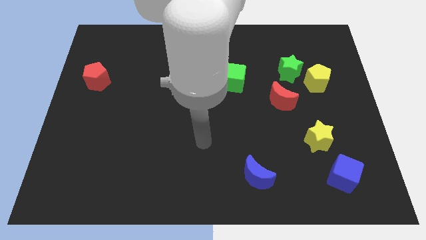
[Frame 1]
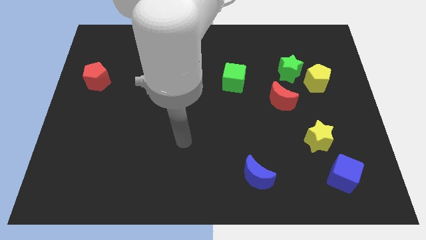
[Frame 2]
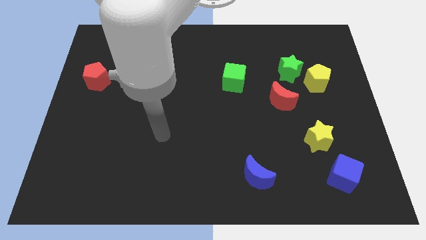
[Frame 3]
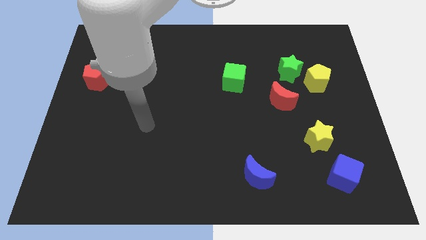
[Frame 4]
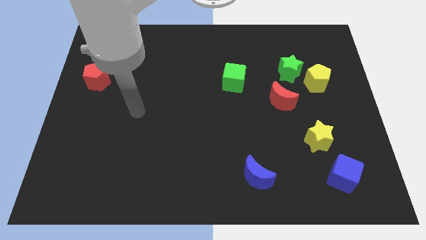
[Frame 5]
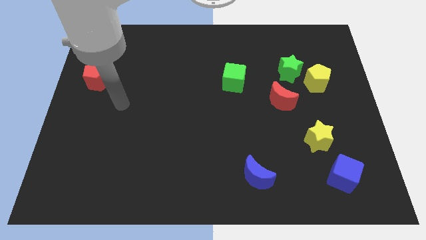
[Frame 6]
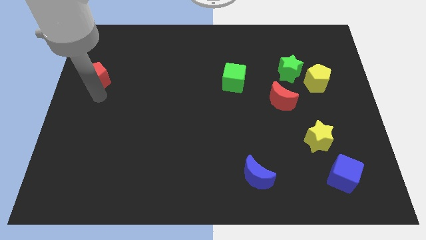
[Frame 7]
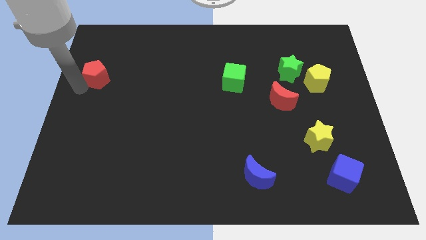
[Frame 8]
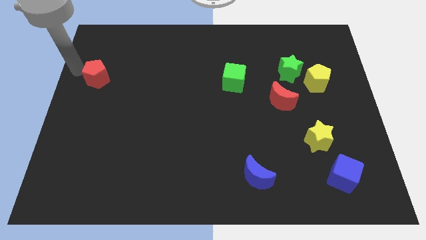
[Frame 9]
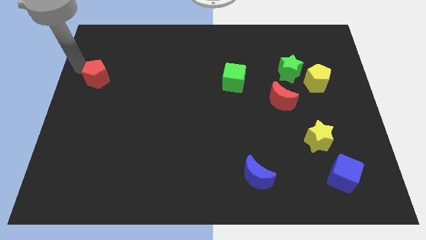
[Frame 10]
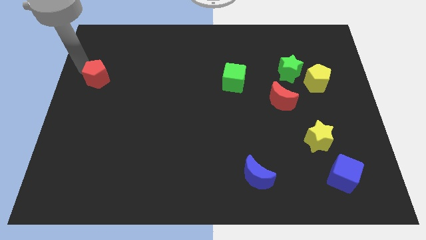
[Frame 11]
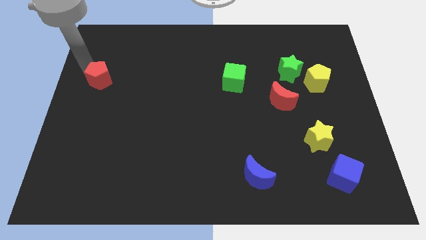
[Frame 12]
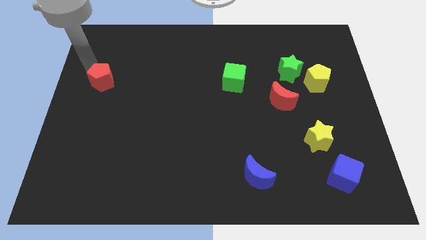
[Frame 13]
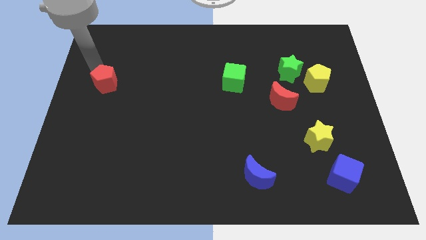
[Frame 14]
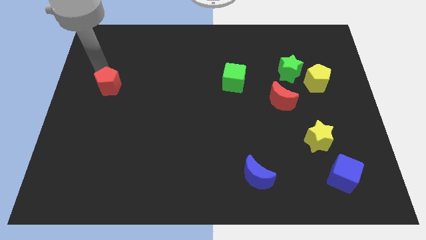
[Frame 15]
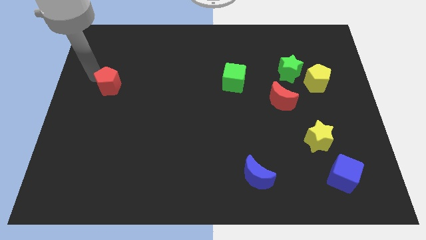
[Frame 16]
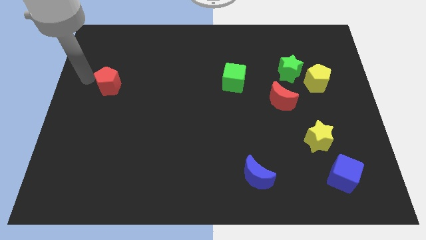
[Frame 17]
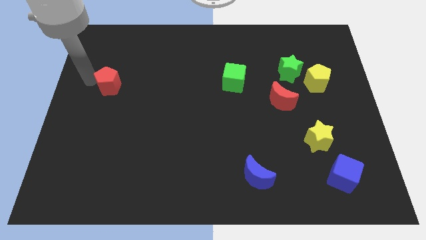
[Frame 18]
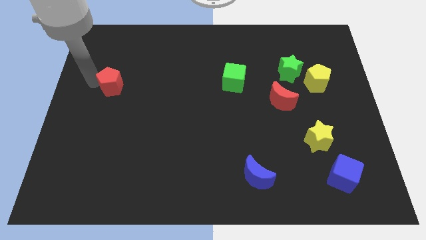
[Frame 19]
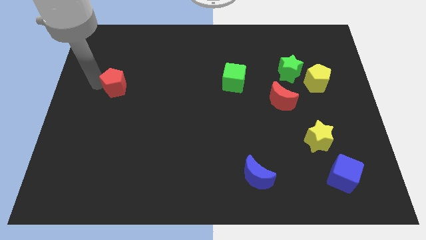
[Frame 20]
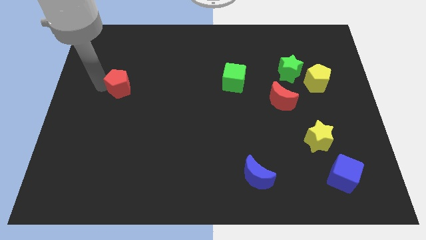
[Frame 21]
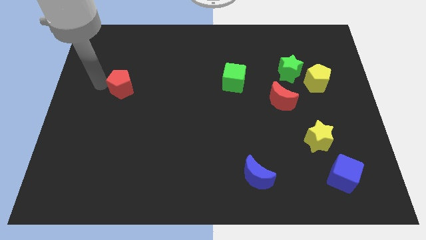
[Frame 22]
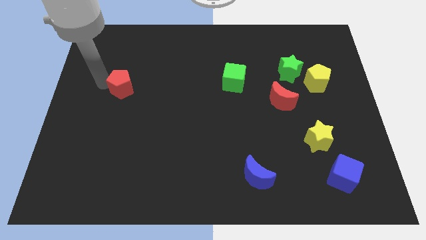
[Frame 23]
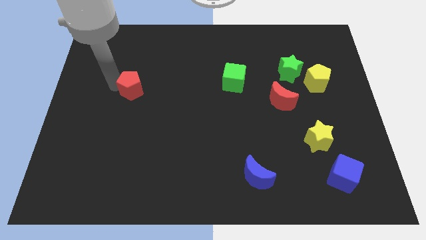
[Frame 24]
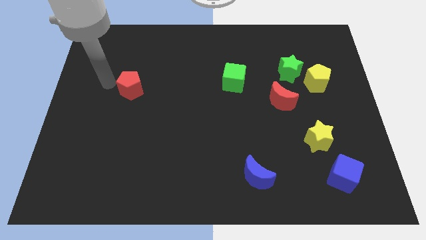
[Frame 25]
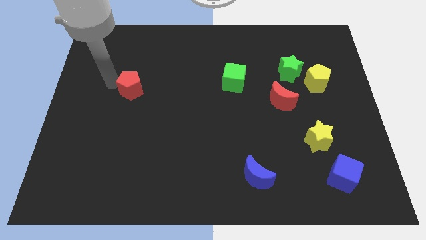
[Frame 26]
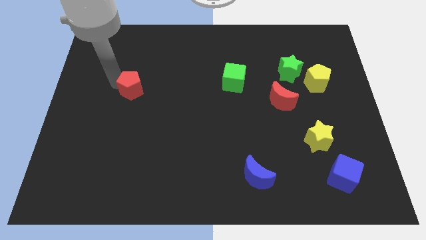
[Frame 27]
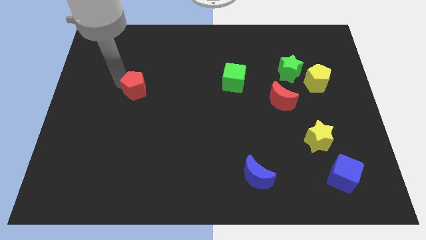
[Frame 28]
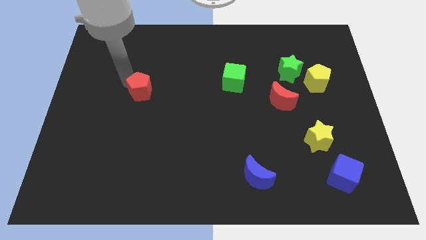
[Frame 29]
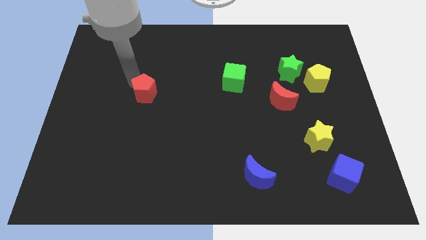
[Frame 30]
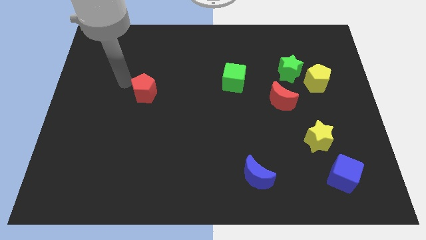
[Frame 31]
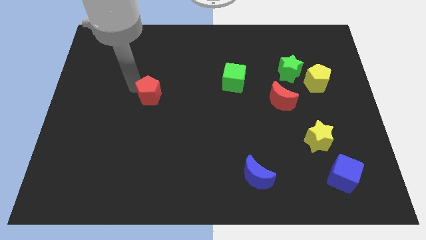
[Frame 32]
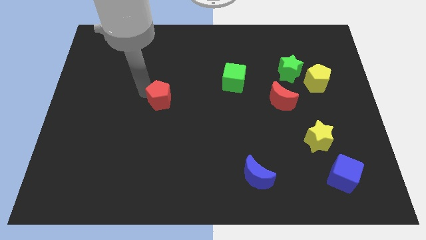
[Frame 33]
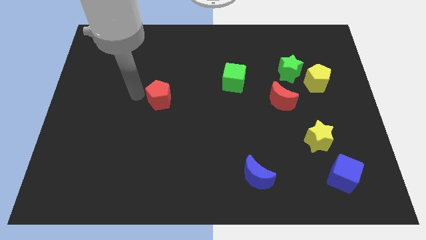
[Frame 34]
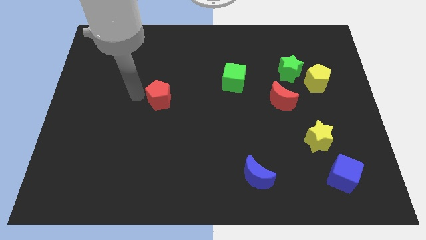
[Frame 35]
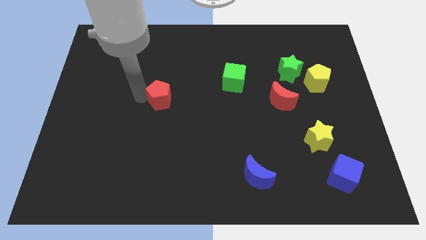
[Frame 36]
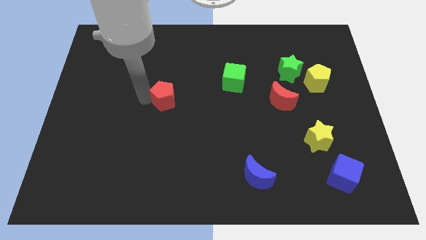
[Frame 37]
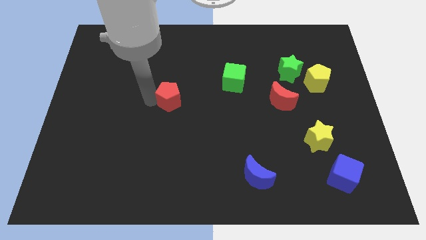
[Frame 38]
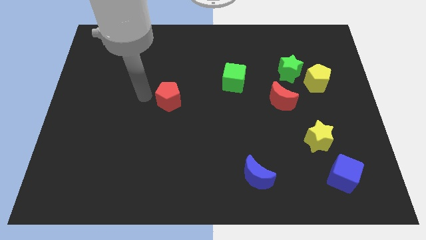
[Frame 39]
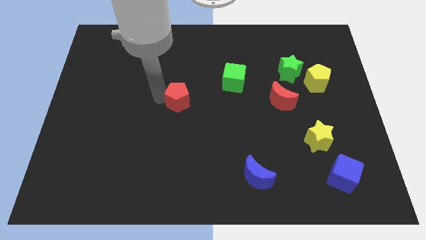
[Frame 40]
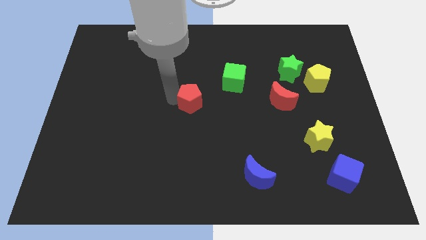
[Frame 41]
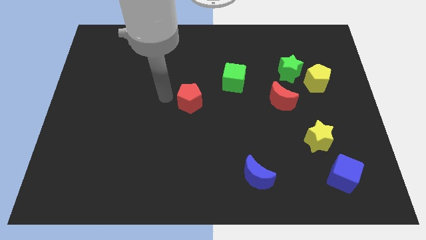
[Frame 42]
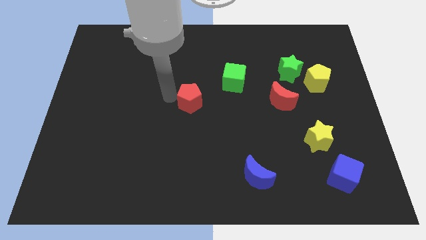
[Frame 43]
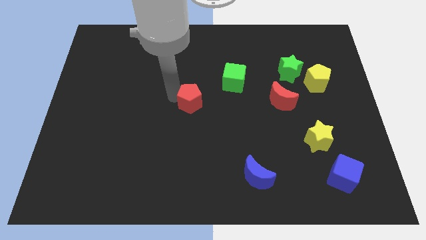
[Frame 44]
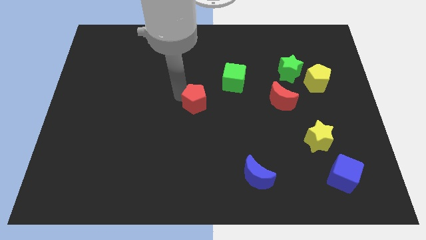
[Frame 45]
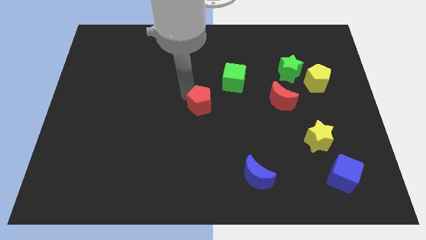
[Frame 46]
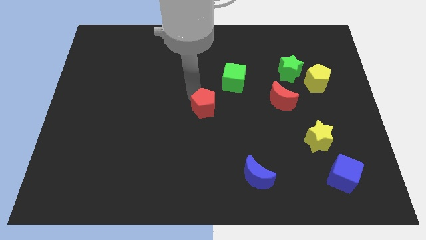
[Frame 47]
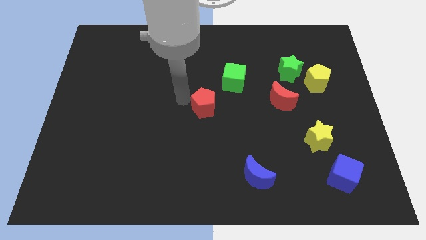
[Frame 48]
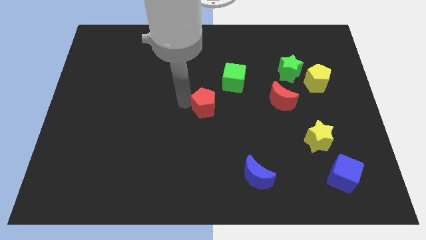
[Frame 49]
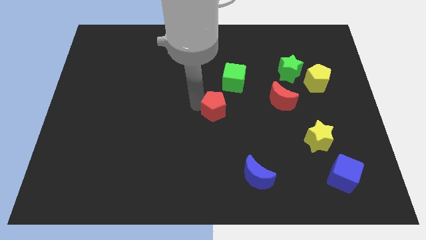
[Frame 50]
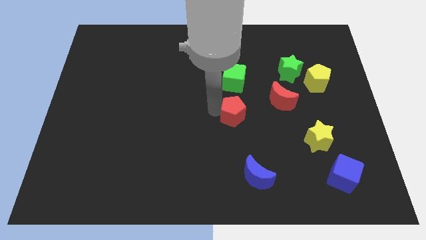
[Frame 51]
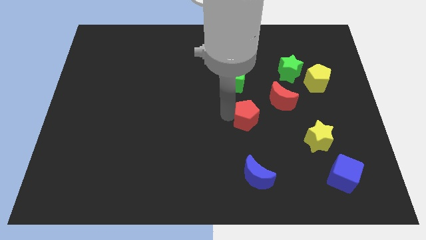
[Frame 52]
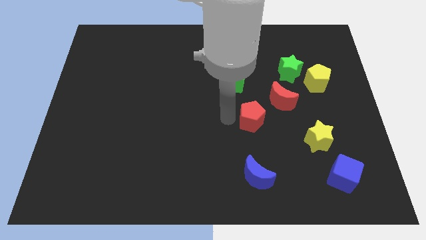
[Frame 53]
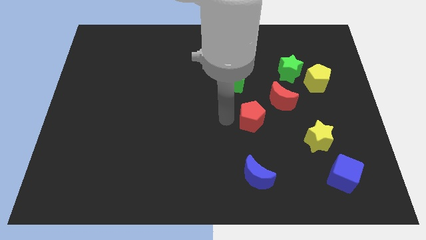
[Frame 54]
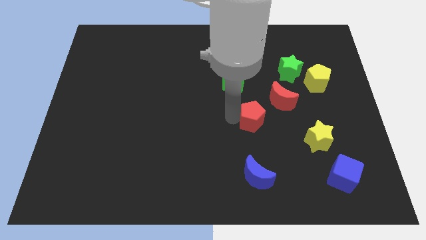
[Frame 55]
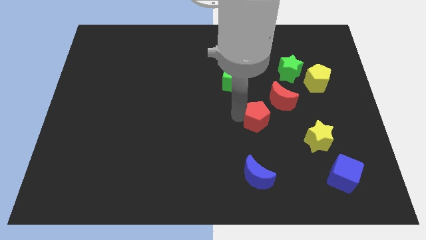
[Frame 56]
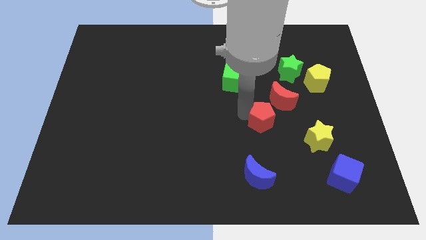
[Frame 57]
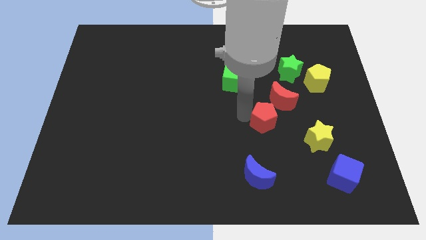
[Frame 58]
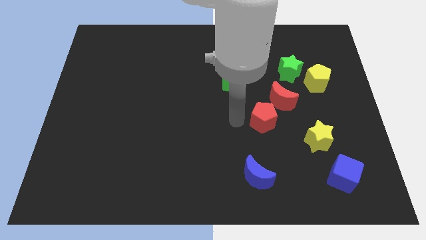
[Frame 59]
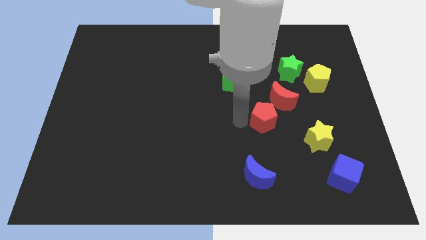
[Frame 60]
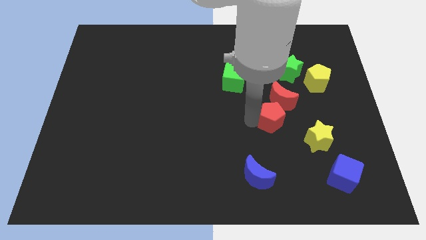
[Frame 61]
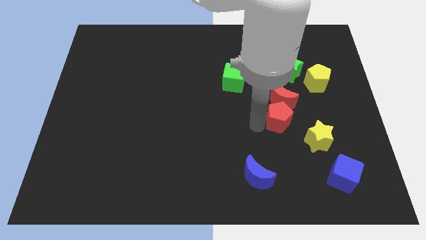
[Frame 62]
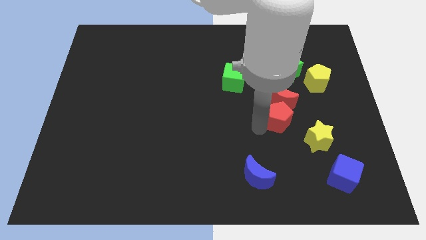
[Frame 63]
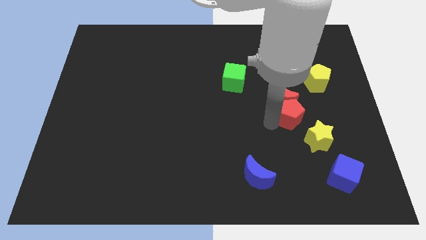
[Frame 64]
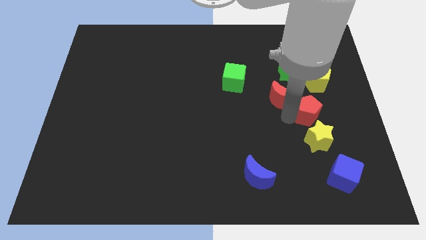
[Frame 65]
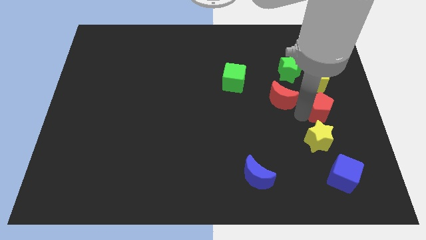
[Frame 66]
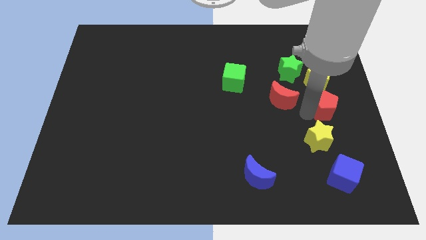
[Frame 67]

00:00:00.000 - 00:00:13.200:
put the red pentagon to the right side of the board
